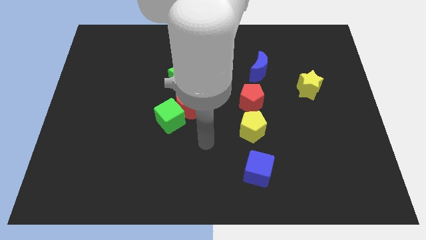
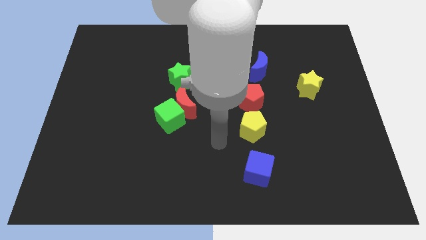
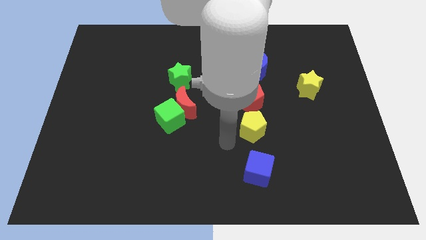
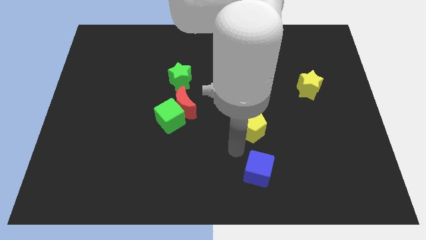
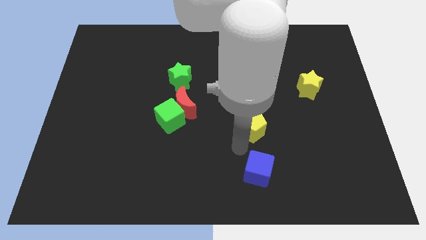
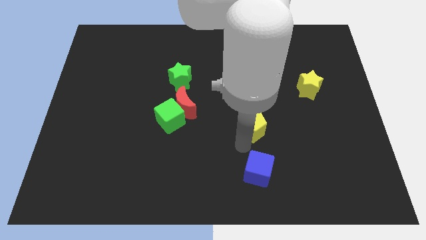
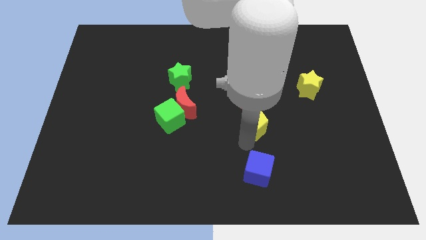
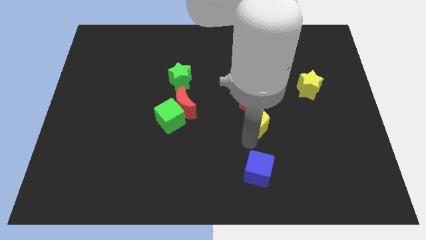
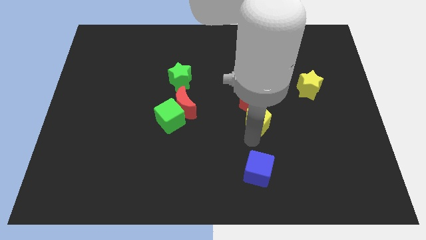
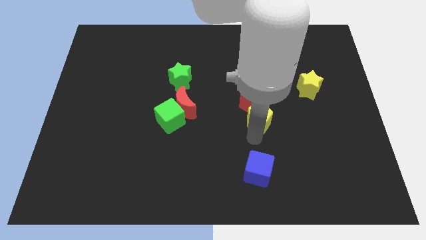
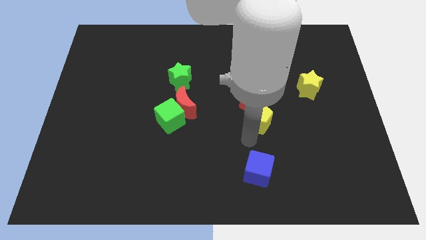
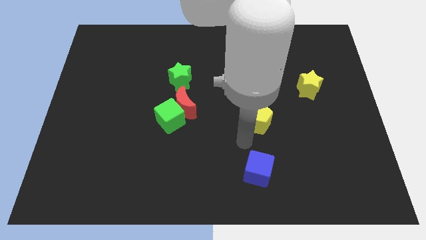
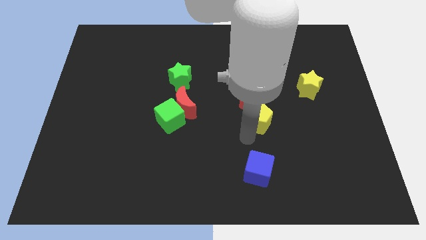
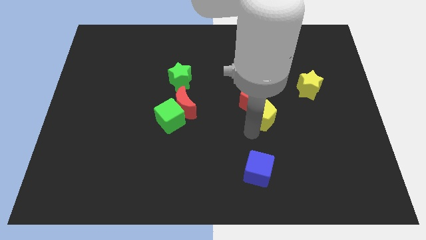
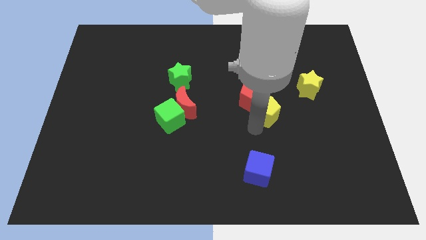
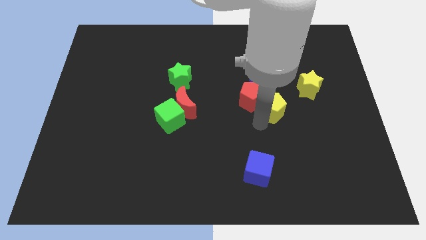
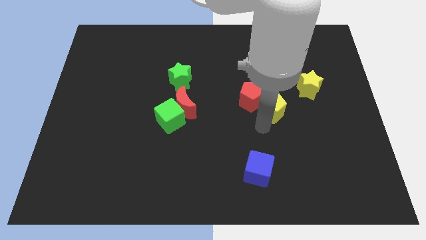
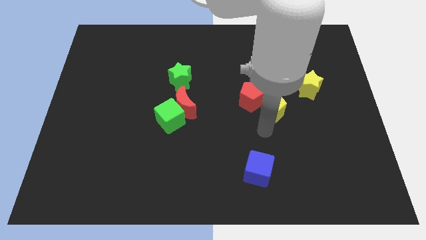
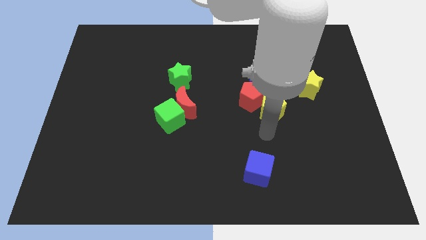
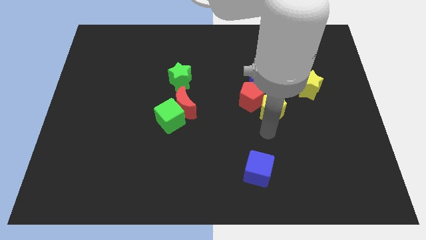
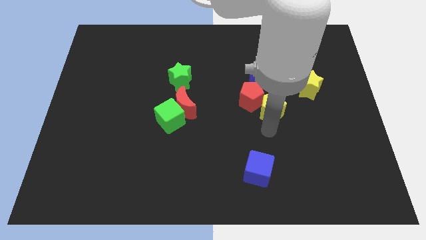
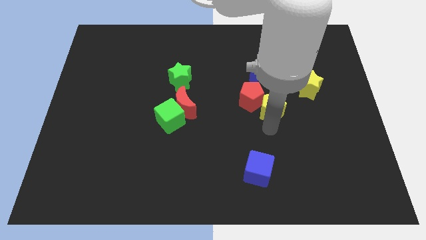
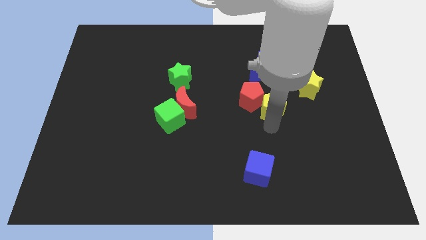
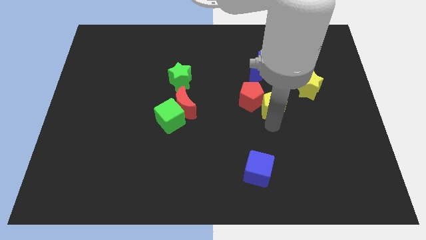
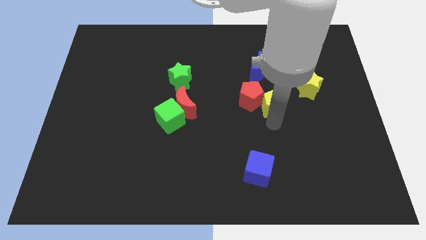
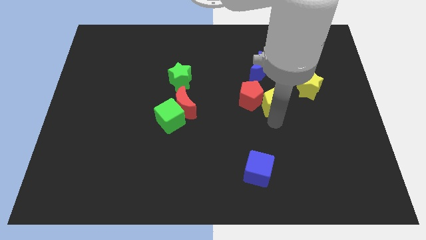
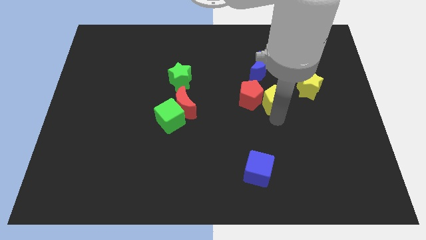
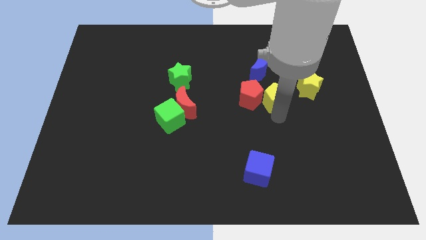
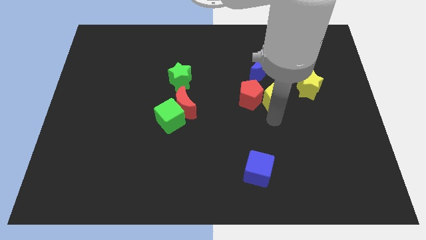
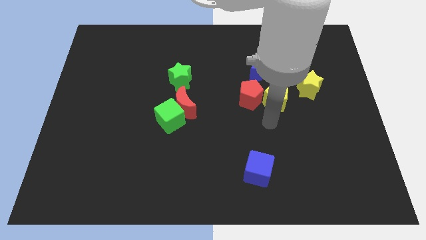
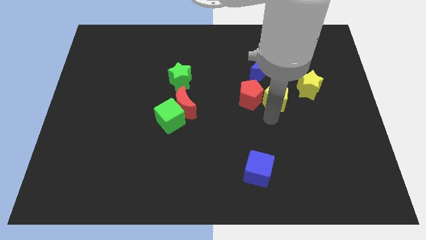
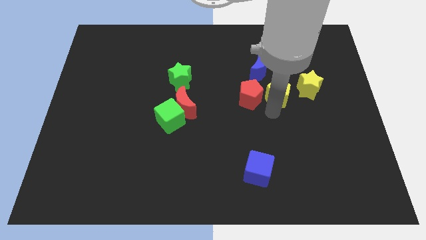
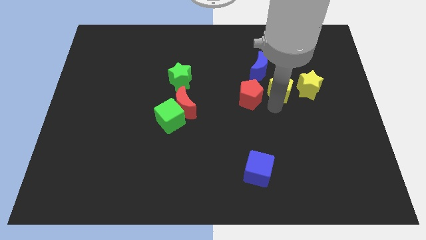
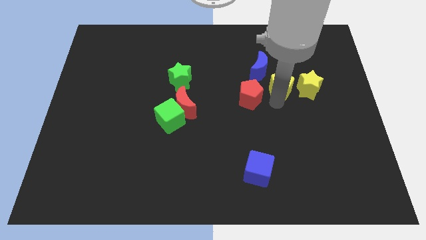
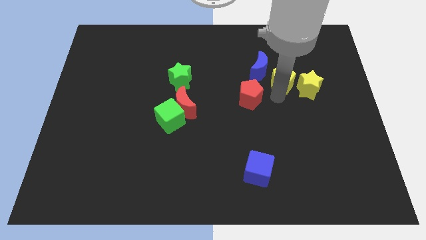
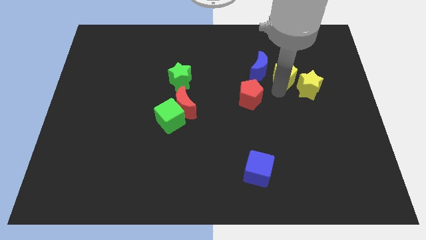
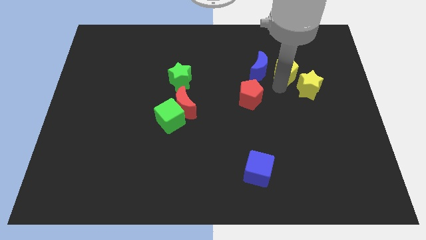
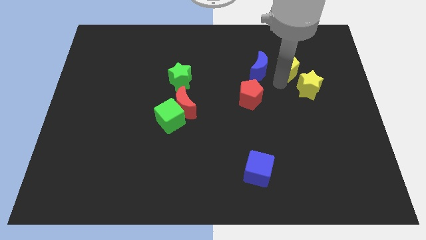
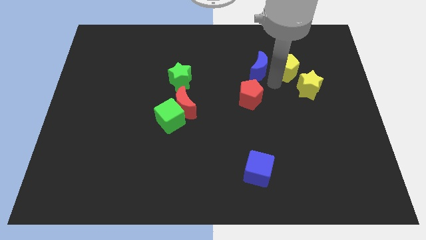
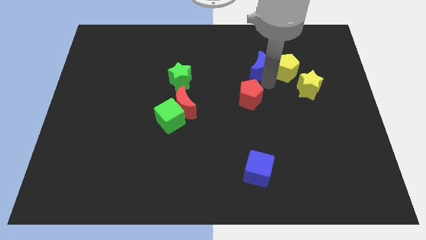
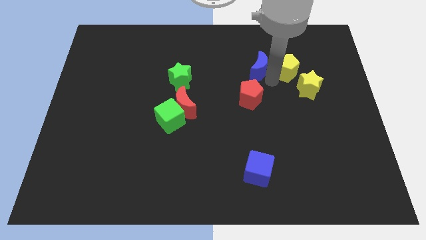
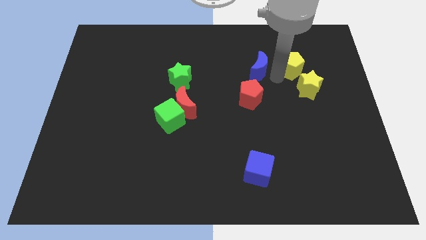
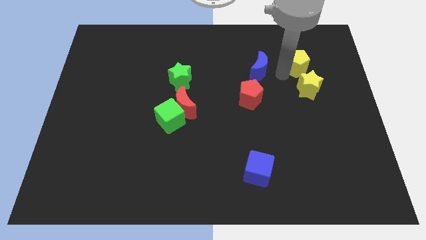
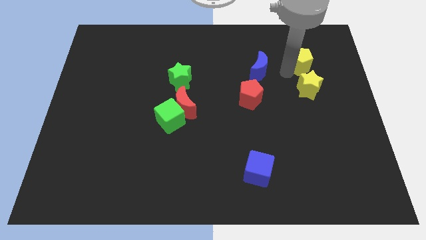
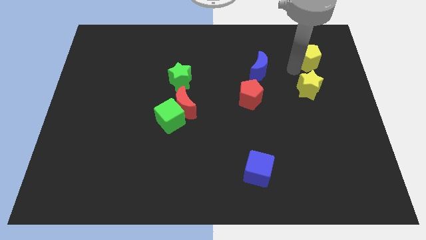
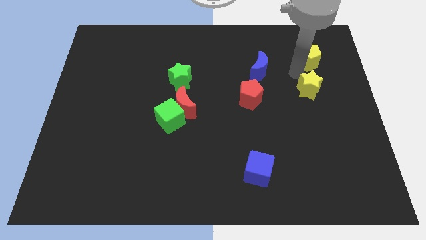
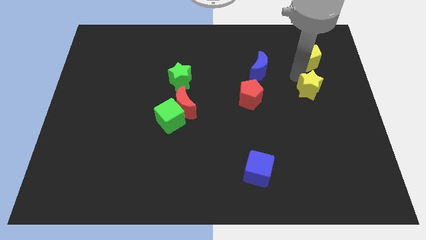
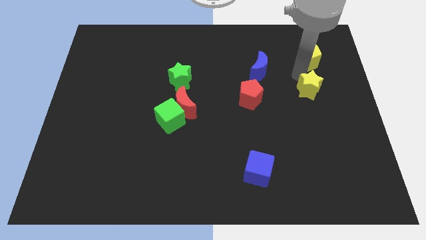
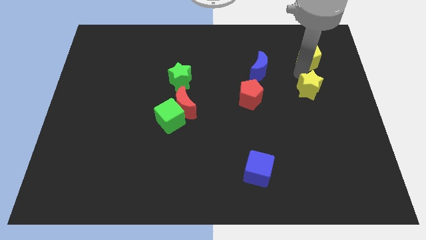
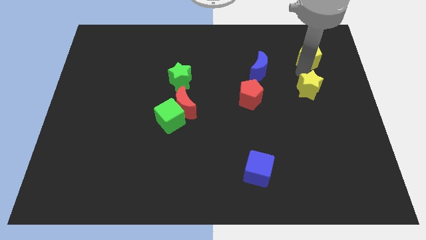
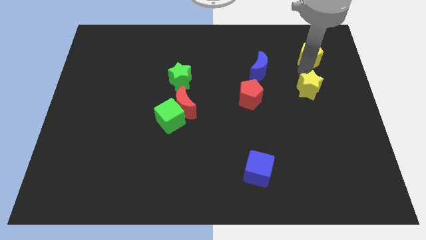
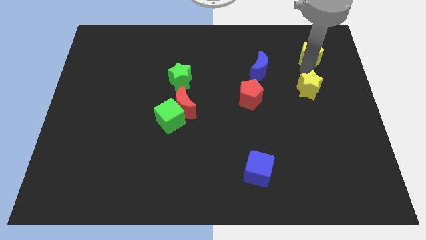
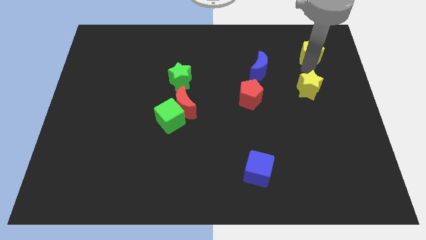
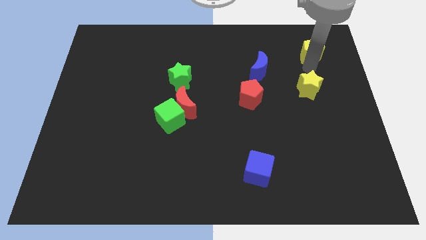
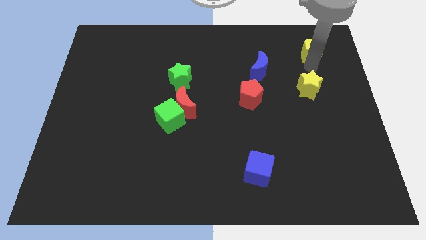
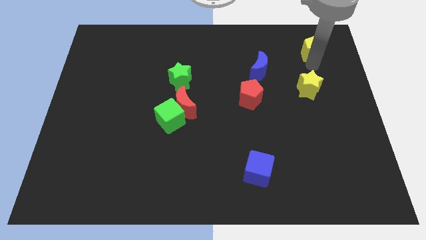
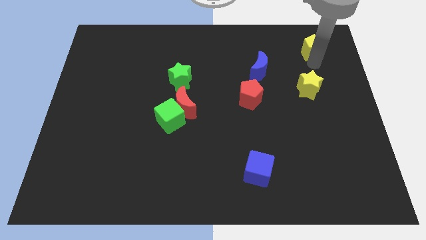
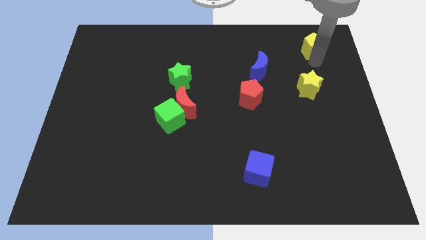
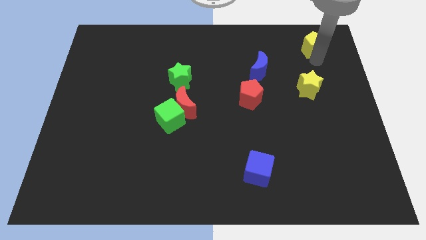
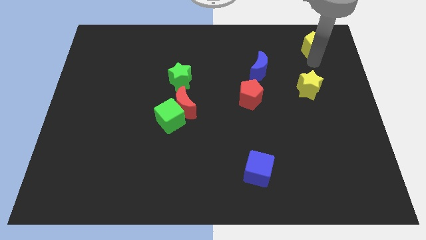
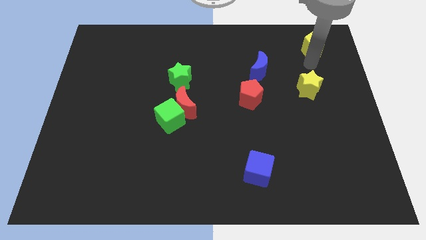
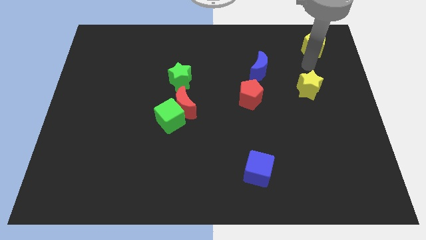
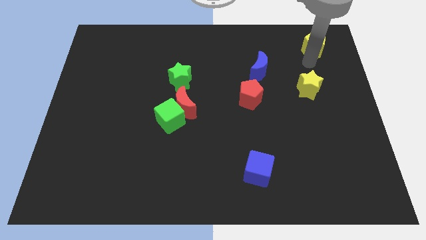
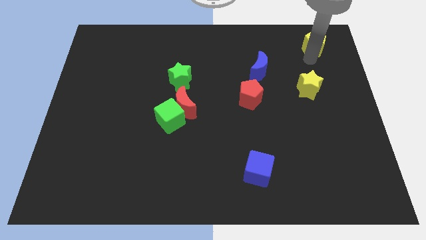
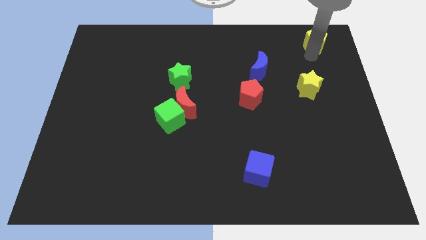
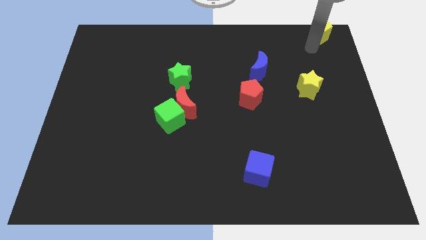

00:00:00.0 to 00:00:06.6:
slide the yellow pentagon to the upper right corner

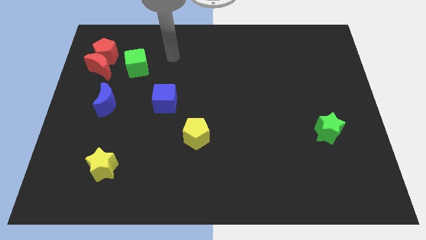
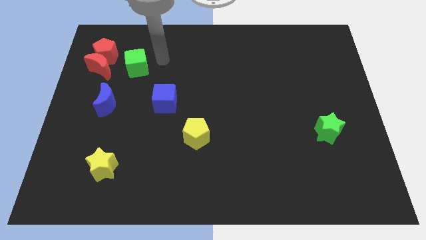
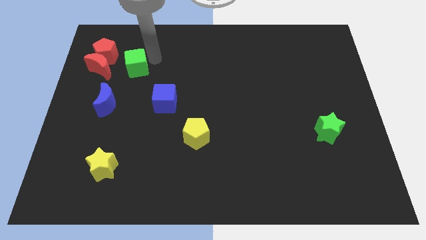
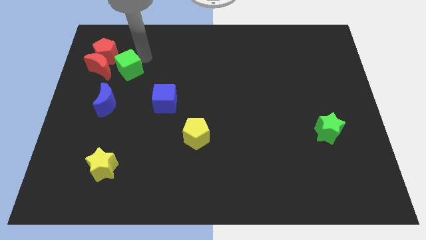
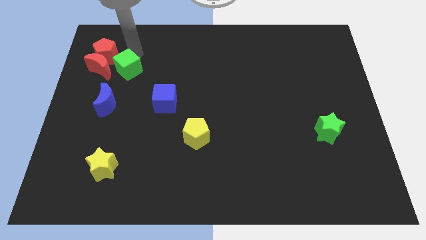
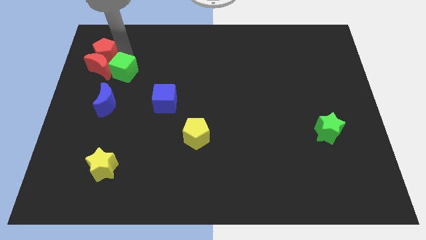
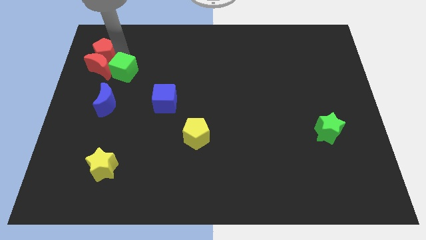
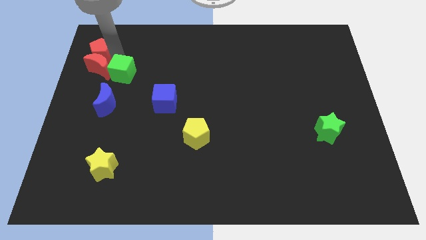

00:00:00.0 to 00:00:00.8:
slide the red moon to the center left
